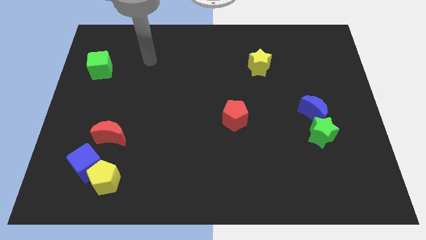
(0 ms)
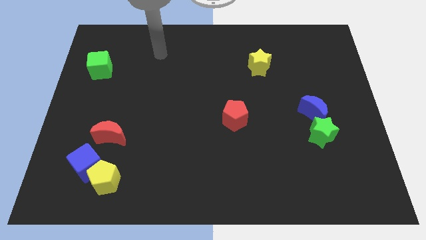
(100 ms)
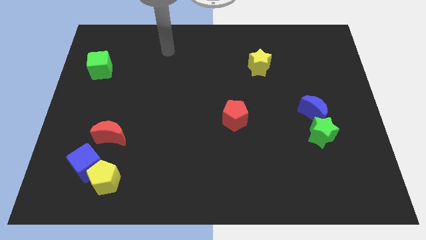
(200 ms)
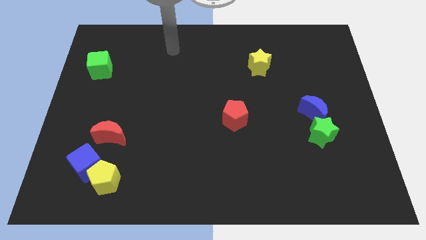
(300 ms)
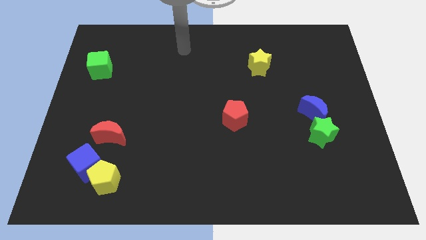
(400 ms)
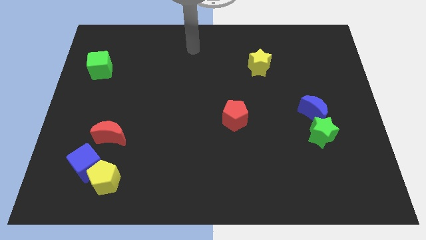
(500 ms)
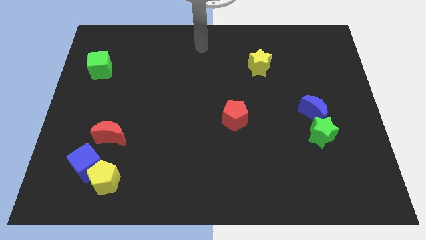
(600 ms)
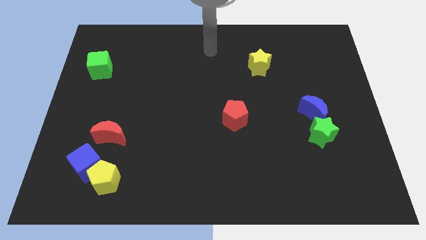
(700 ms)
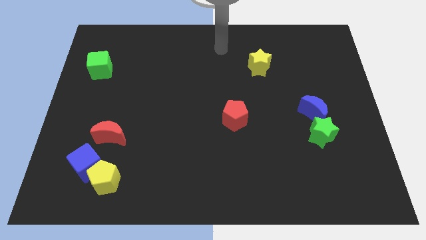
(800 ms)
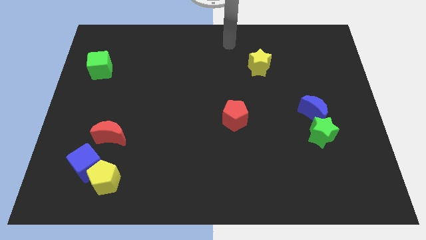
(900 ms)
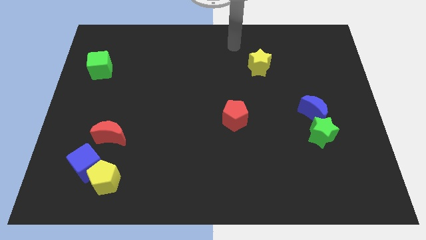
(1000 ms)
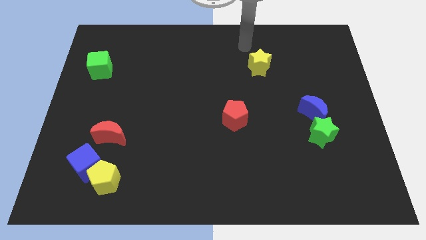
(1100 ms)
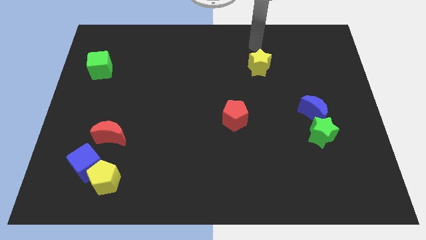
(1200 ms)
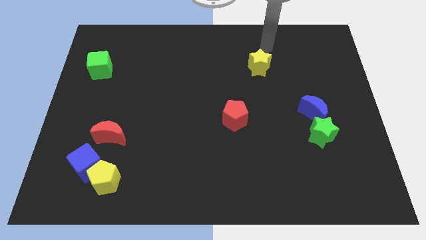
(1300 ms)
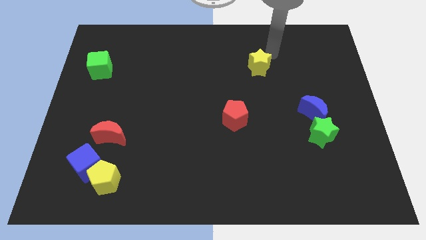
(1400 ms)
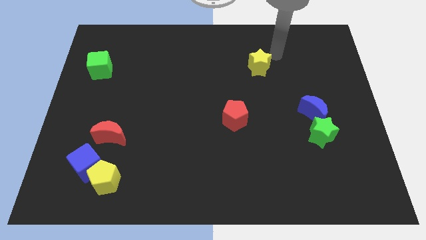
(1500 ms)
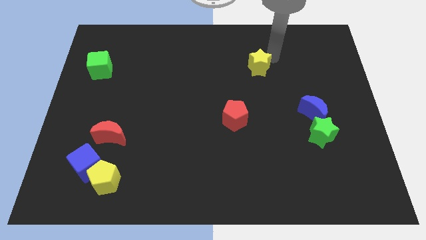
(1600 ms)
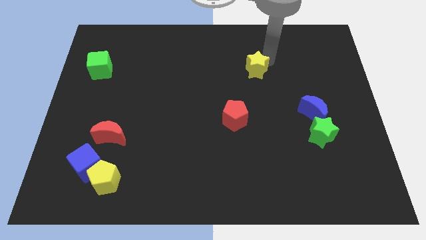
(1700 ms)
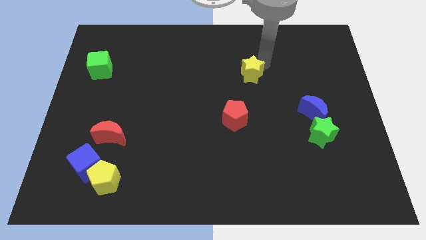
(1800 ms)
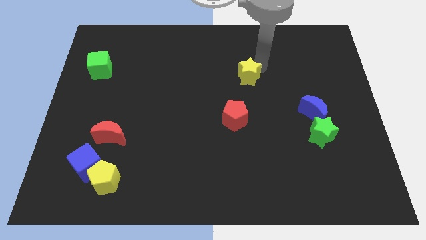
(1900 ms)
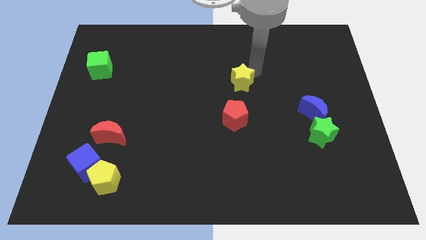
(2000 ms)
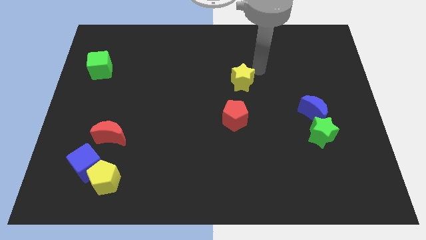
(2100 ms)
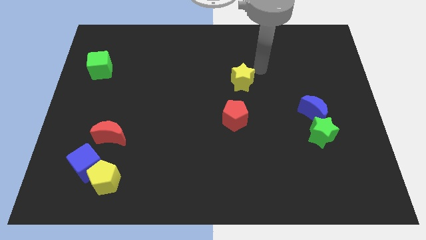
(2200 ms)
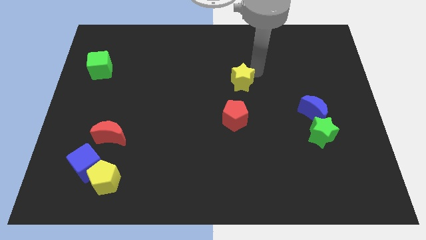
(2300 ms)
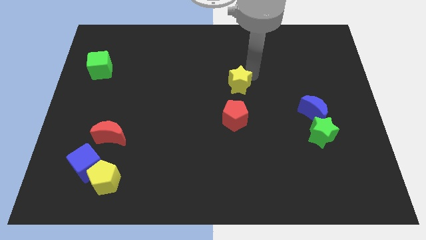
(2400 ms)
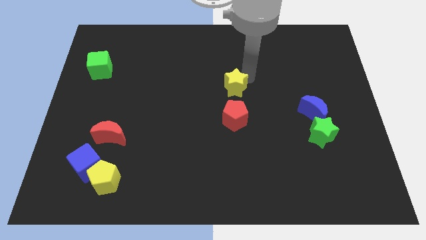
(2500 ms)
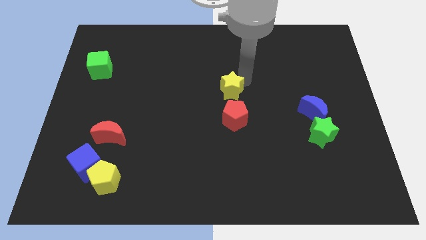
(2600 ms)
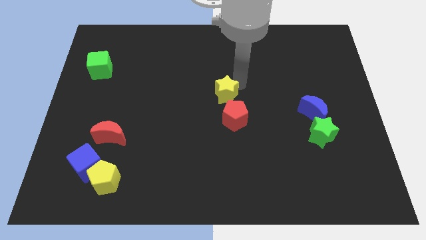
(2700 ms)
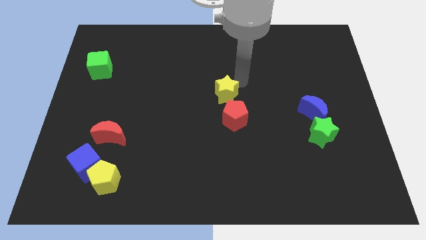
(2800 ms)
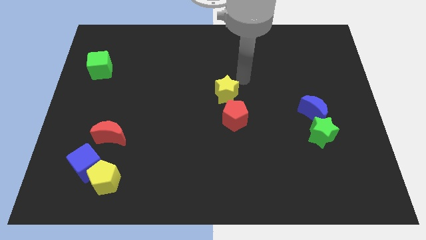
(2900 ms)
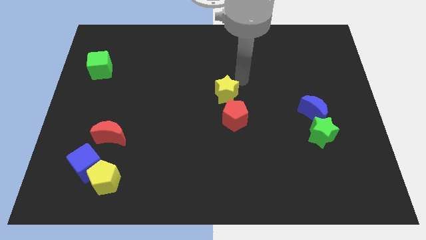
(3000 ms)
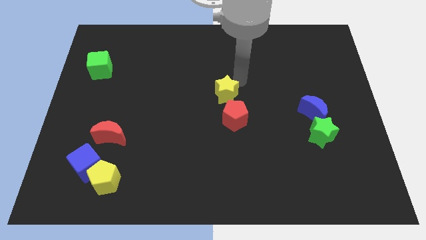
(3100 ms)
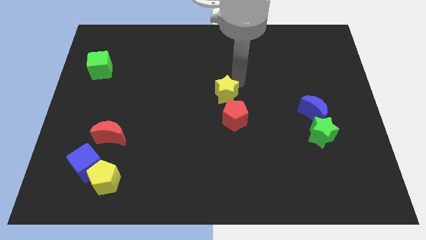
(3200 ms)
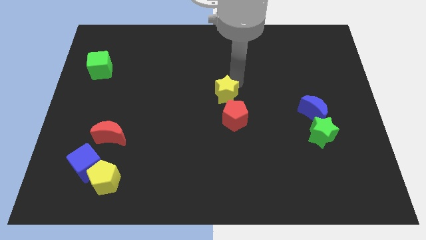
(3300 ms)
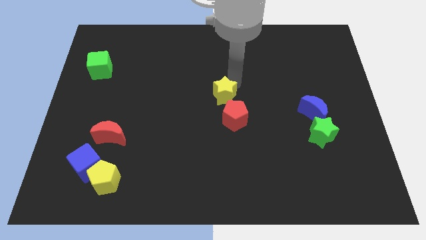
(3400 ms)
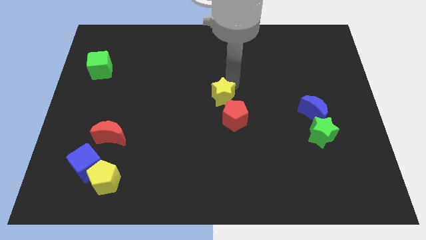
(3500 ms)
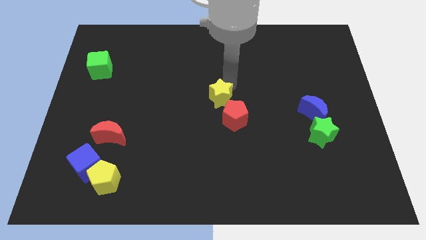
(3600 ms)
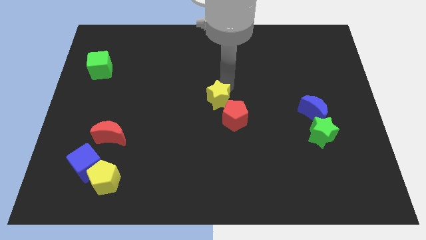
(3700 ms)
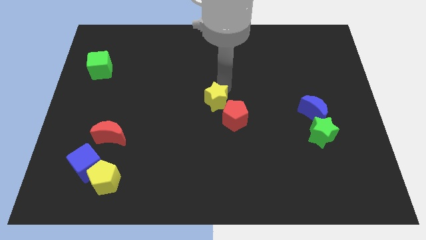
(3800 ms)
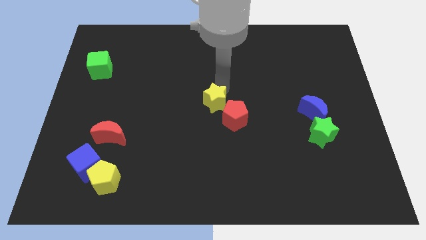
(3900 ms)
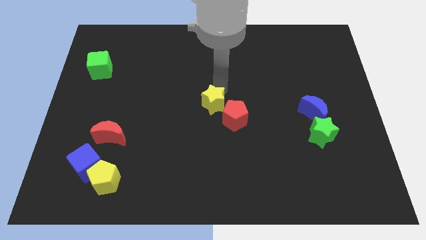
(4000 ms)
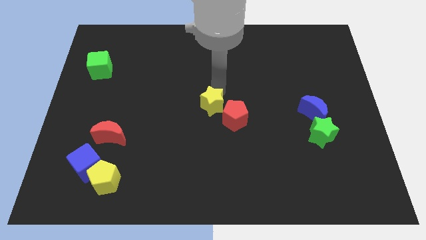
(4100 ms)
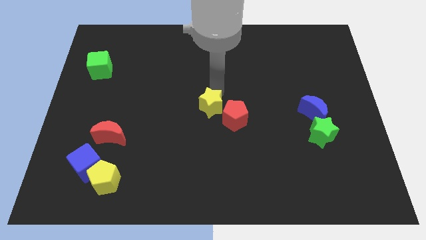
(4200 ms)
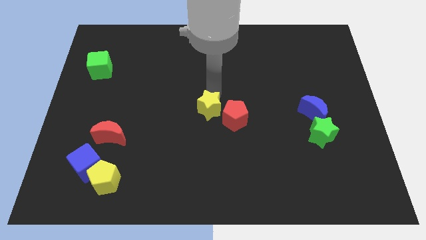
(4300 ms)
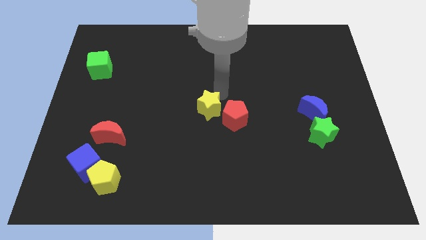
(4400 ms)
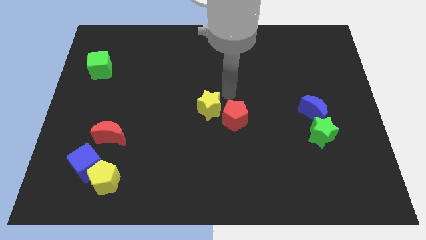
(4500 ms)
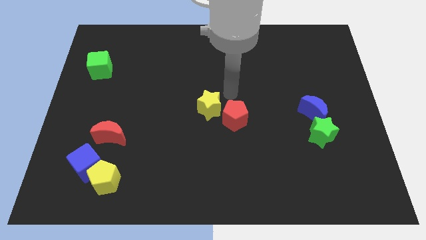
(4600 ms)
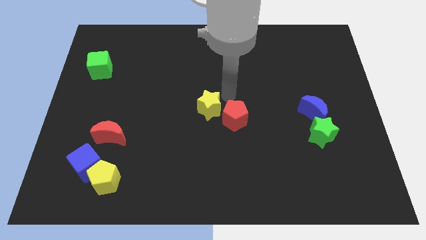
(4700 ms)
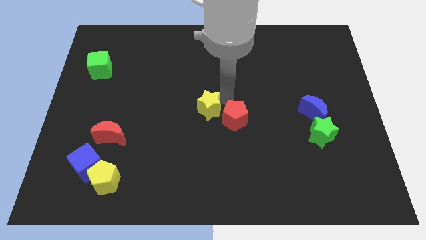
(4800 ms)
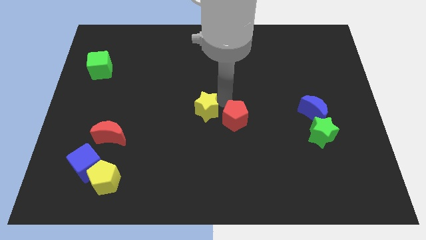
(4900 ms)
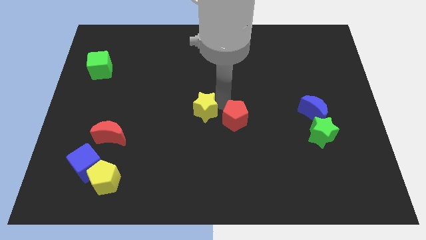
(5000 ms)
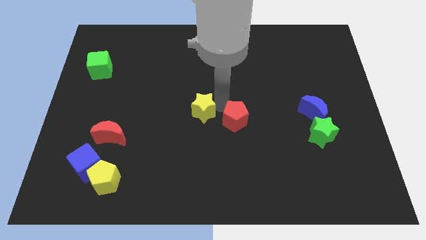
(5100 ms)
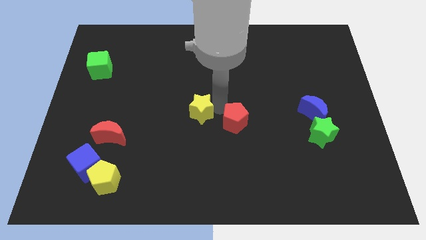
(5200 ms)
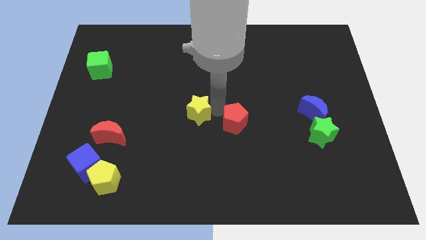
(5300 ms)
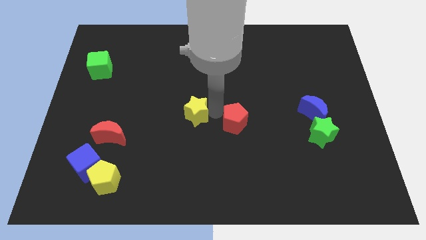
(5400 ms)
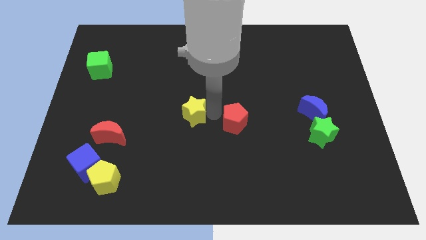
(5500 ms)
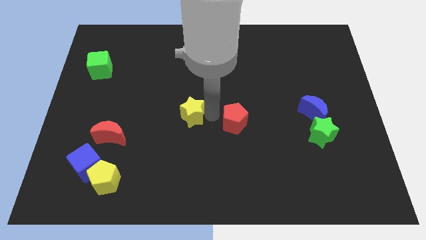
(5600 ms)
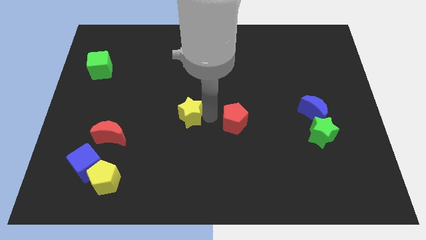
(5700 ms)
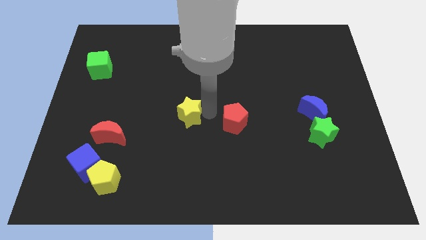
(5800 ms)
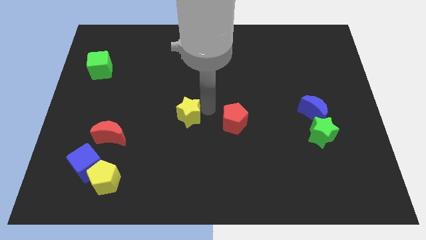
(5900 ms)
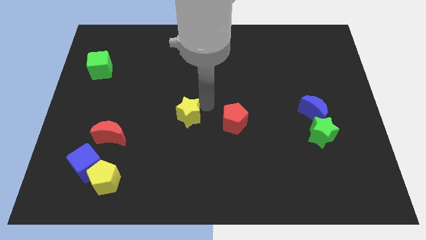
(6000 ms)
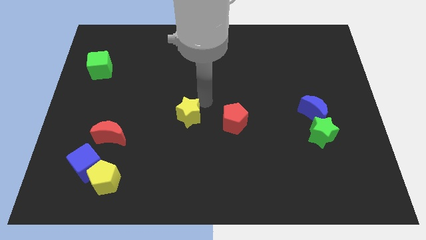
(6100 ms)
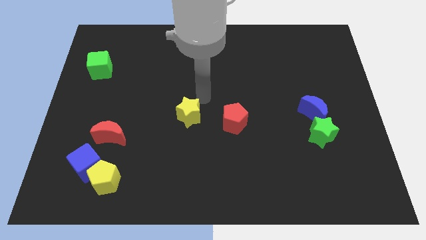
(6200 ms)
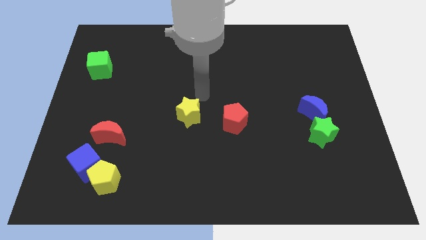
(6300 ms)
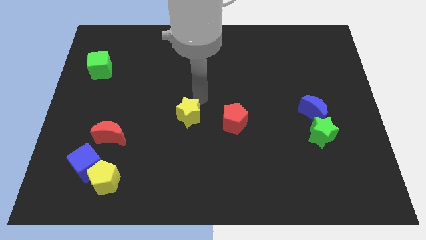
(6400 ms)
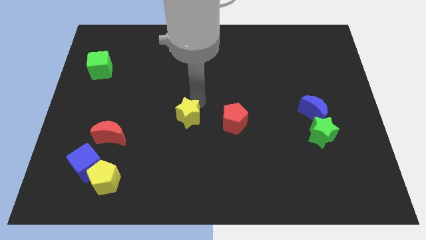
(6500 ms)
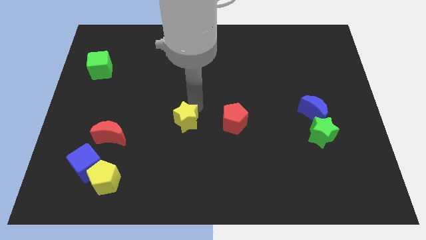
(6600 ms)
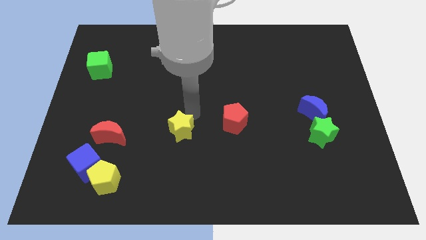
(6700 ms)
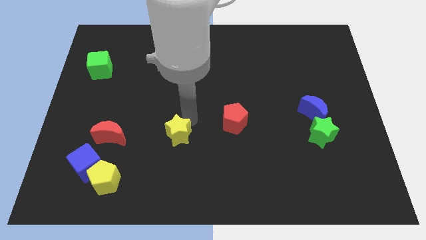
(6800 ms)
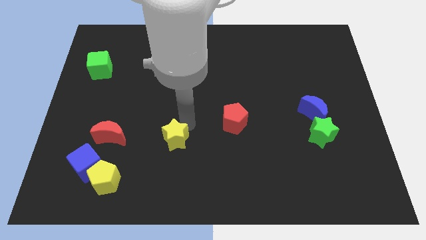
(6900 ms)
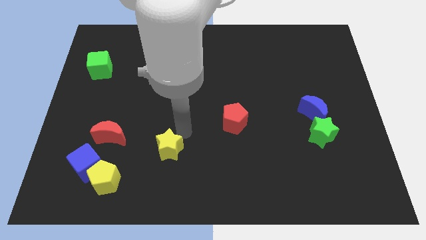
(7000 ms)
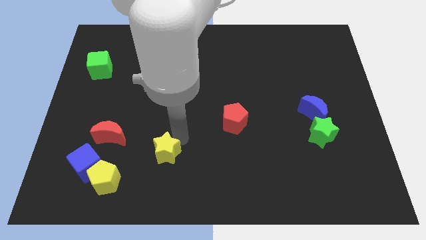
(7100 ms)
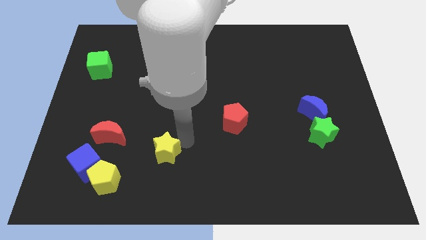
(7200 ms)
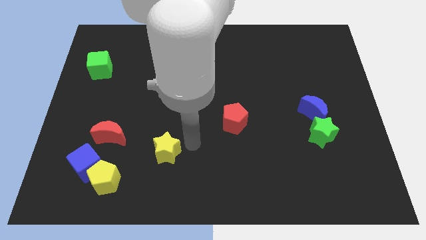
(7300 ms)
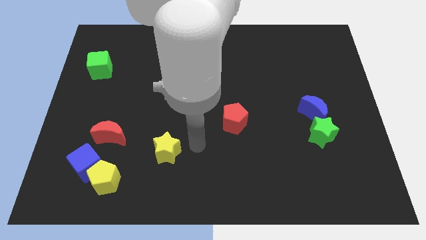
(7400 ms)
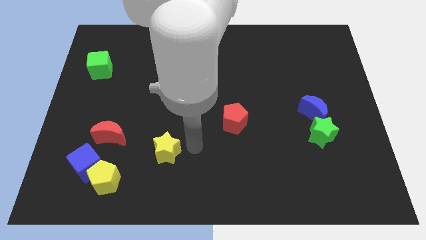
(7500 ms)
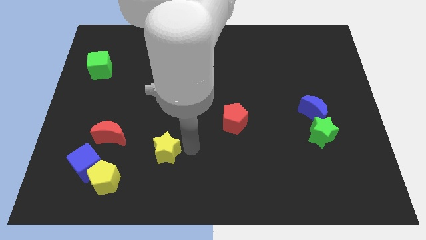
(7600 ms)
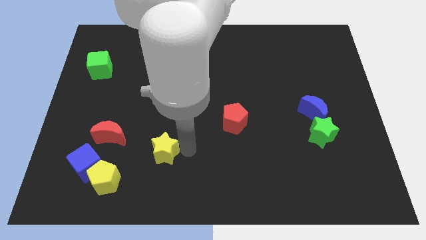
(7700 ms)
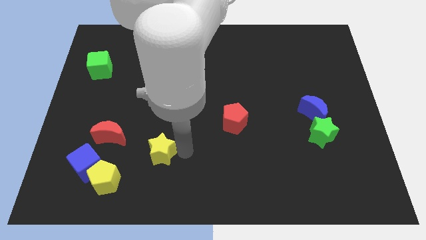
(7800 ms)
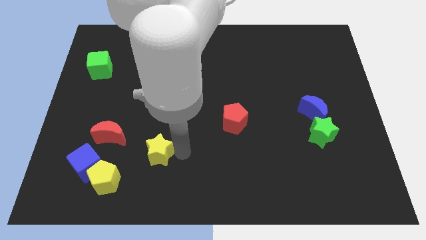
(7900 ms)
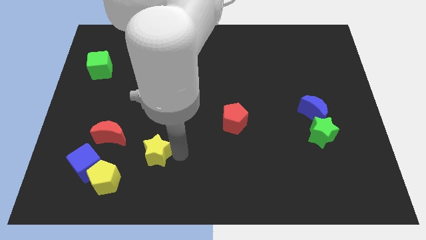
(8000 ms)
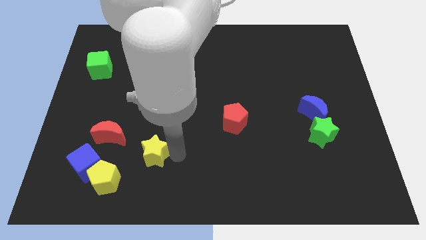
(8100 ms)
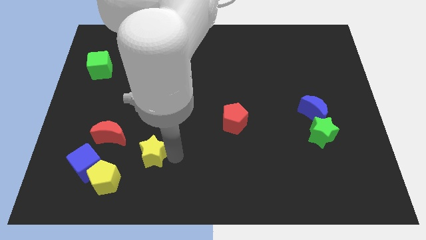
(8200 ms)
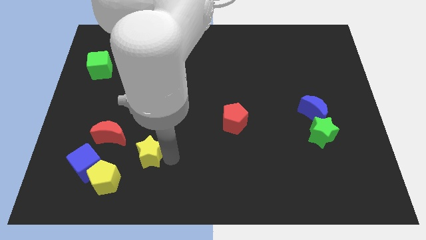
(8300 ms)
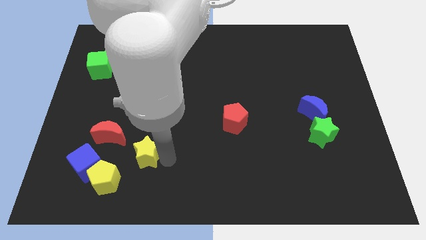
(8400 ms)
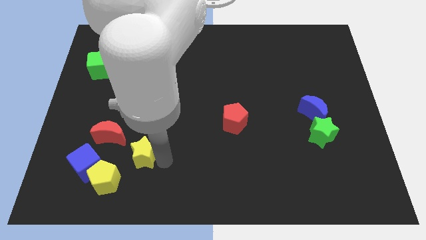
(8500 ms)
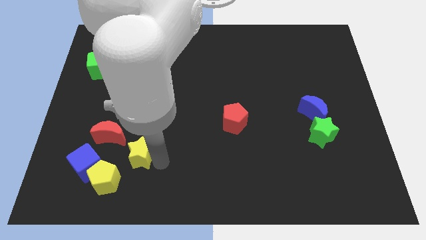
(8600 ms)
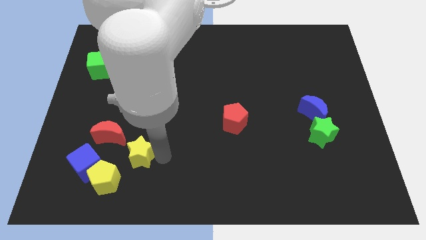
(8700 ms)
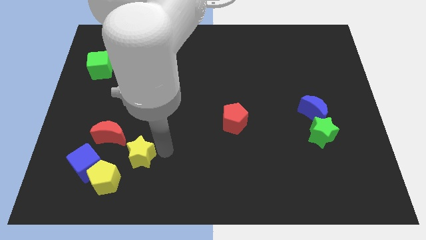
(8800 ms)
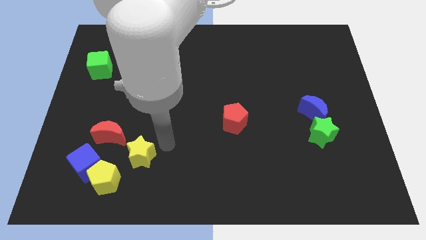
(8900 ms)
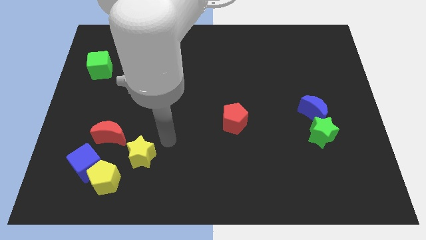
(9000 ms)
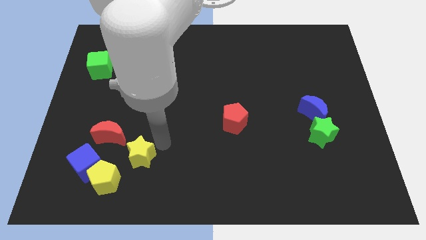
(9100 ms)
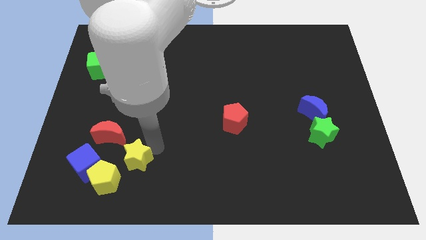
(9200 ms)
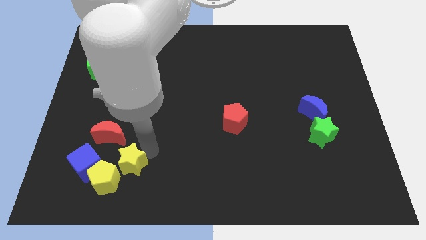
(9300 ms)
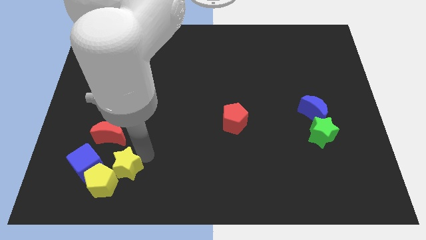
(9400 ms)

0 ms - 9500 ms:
move the yellow star to the yellow pentagon
